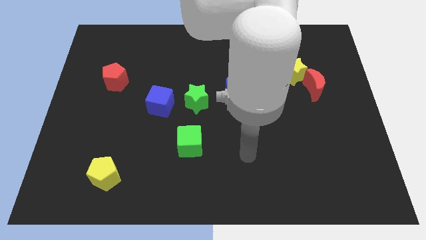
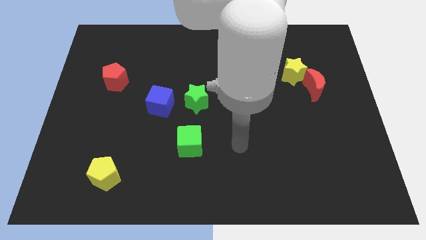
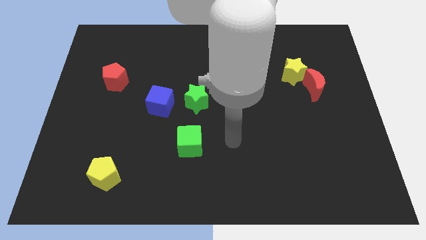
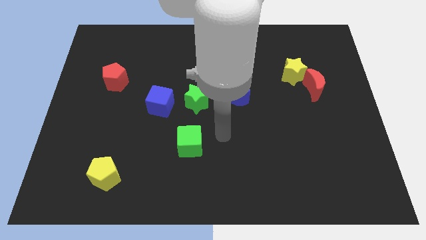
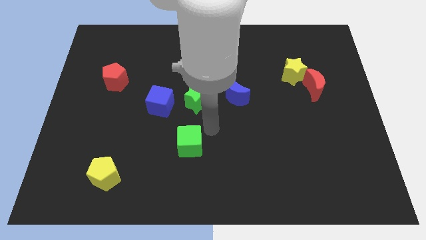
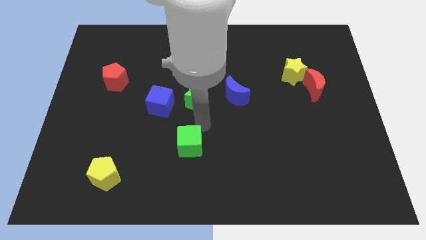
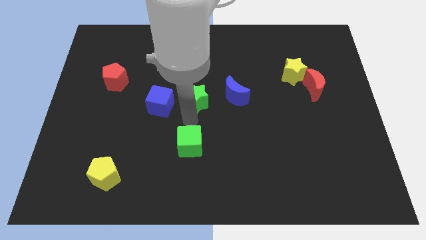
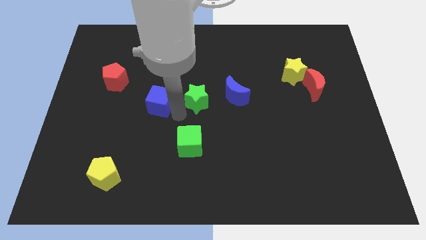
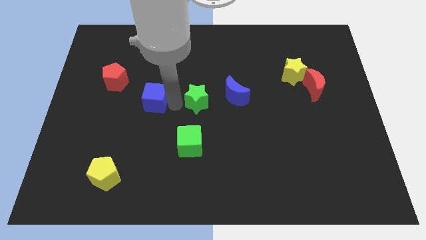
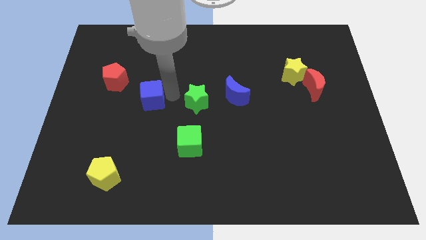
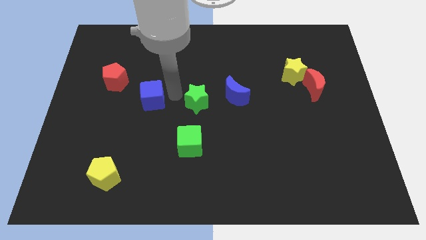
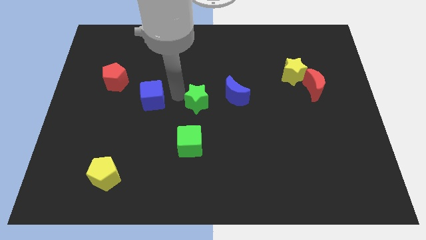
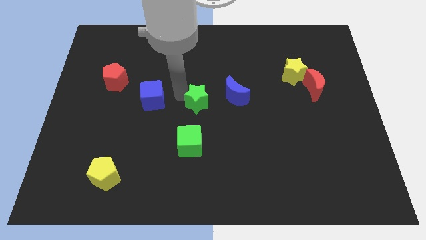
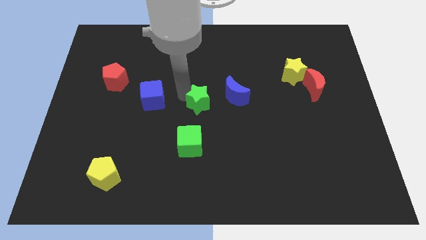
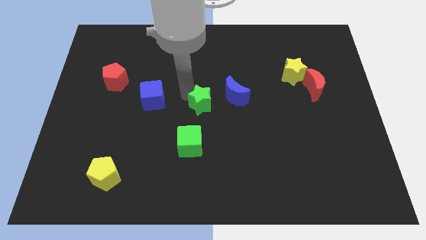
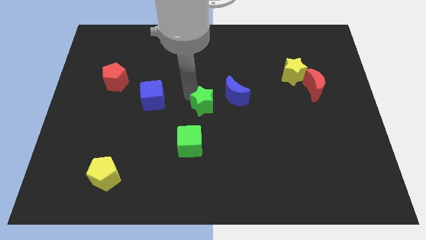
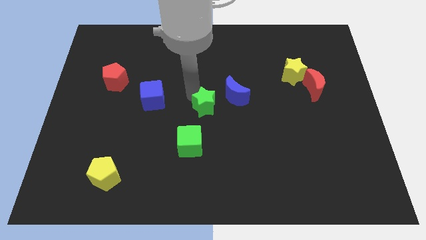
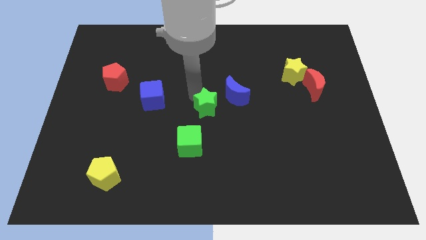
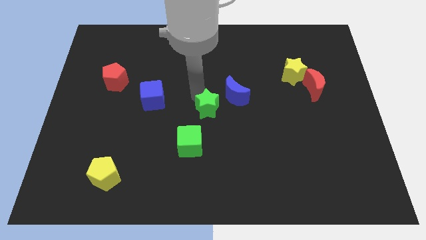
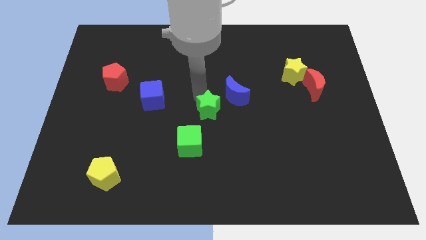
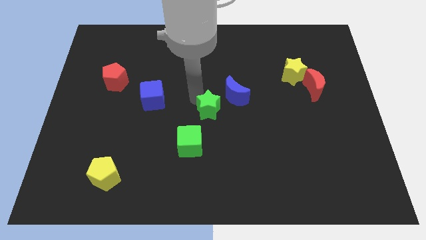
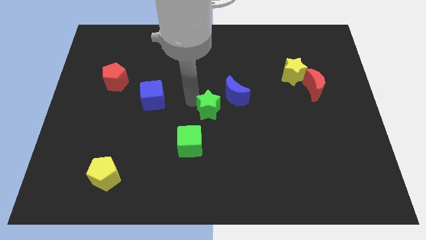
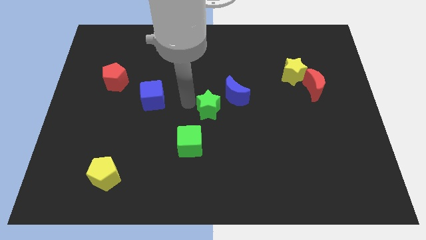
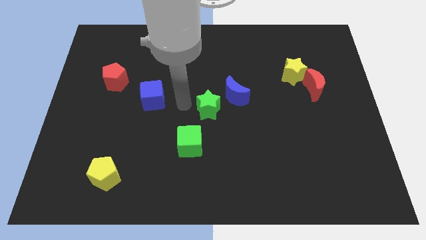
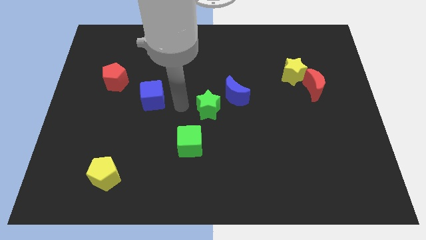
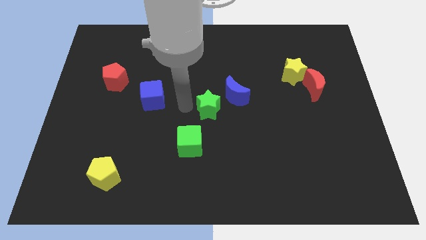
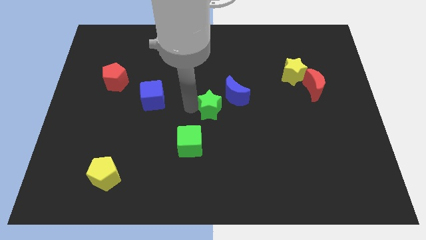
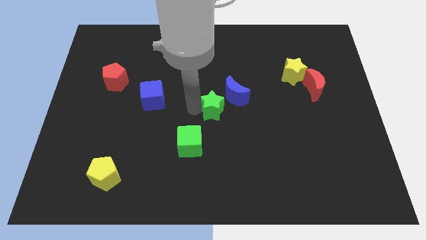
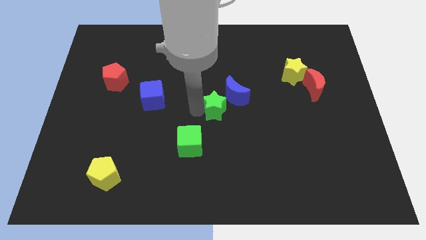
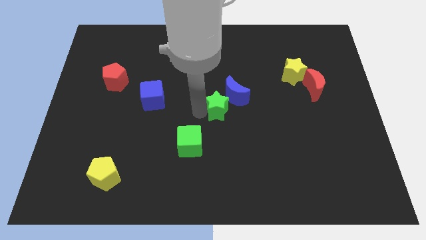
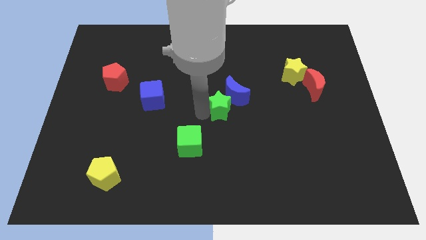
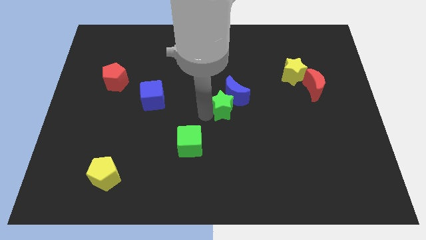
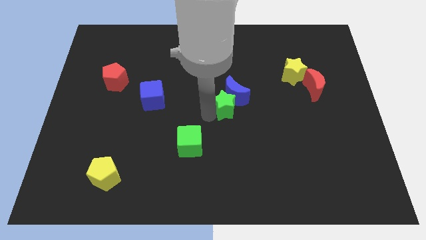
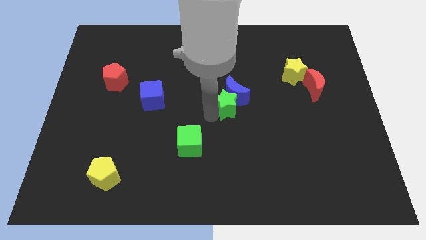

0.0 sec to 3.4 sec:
move the green star to the right a bit

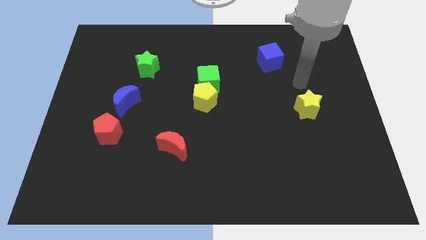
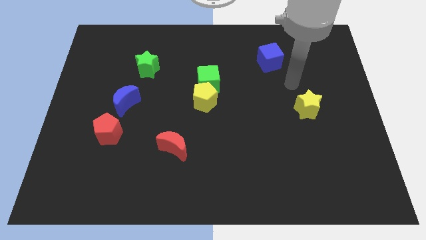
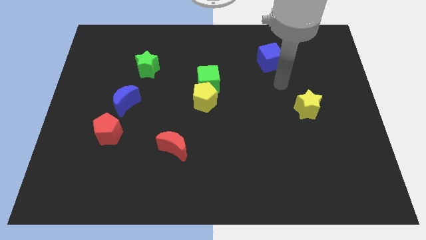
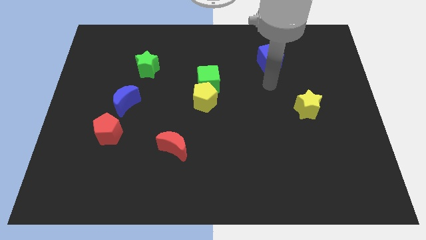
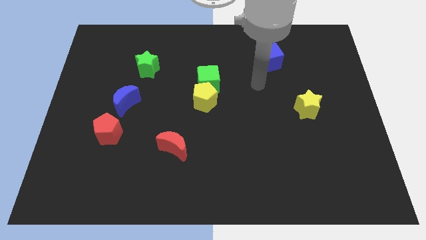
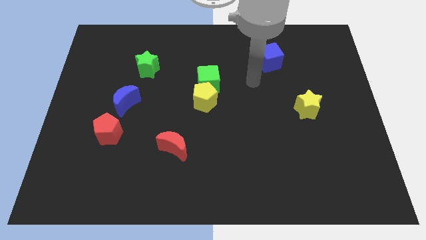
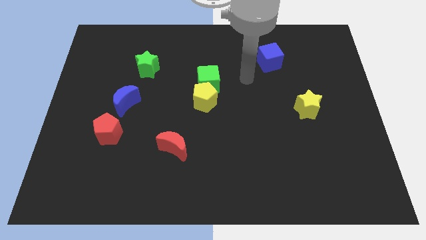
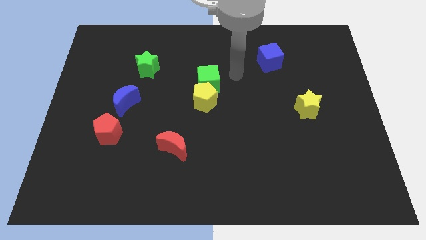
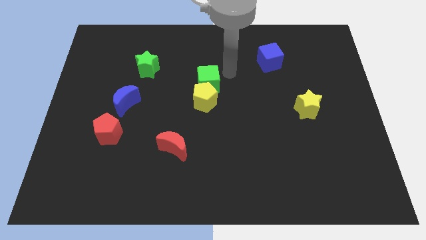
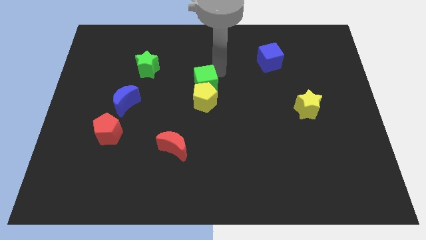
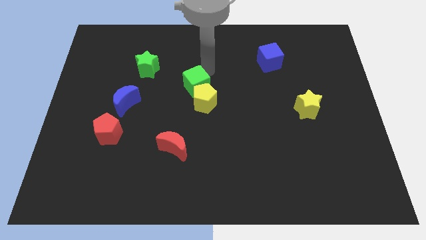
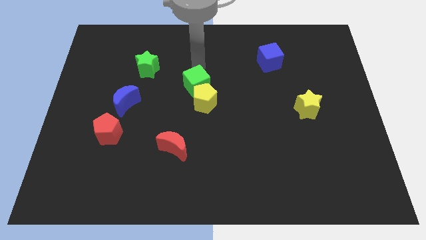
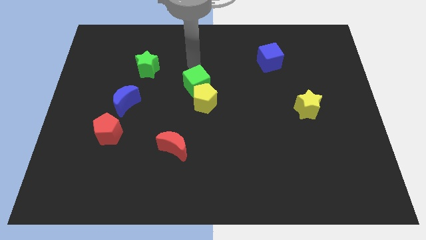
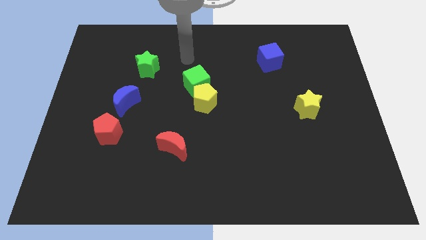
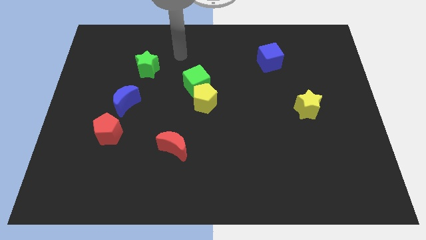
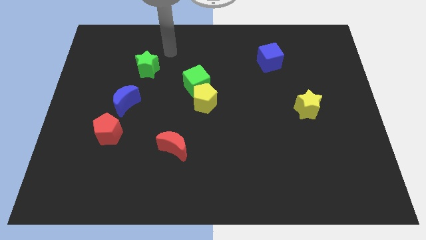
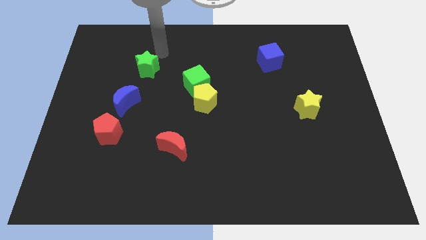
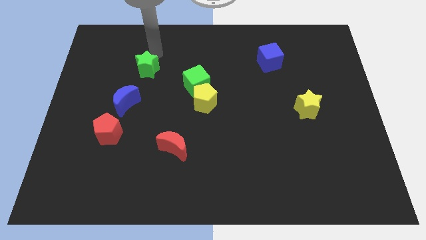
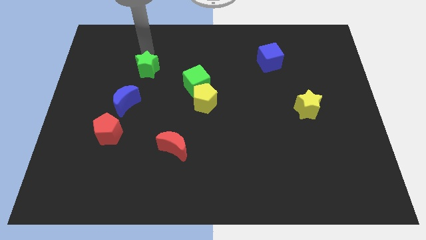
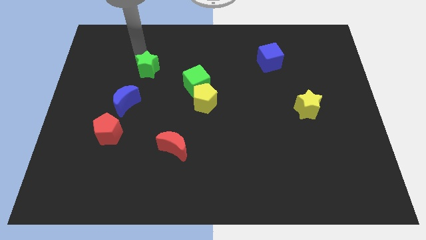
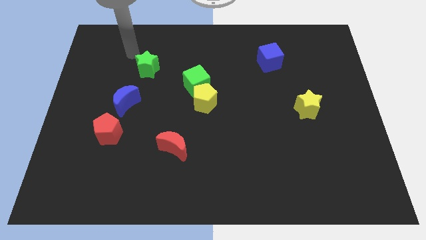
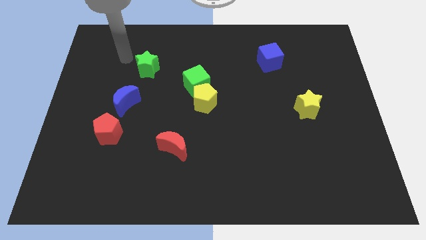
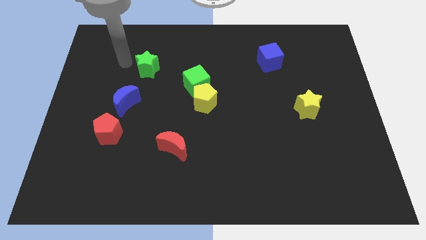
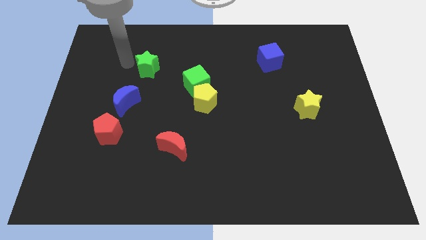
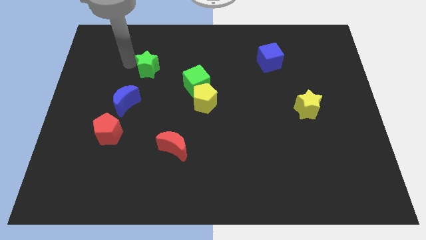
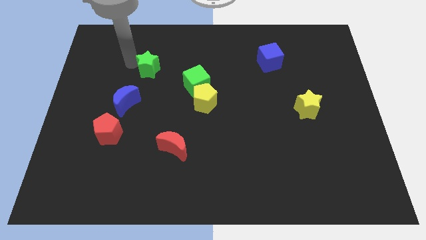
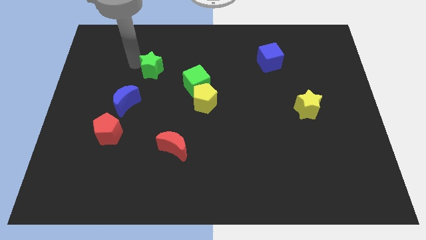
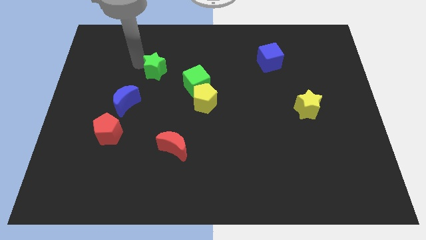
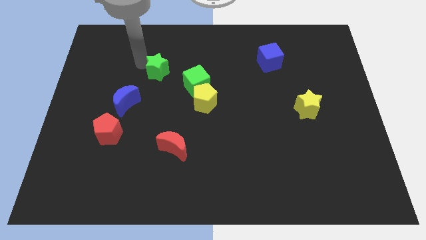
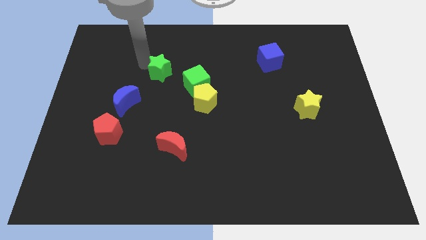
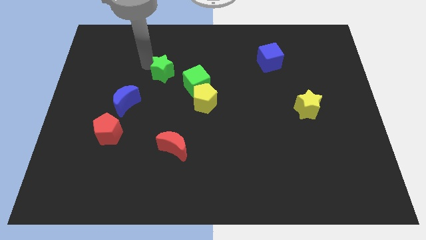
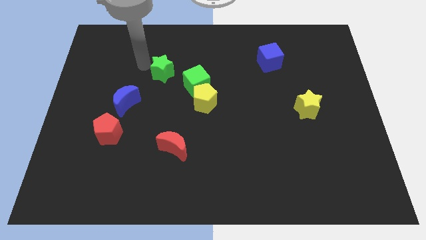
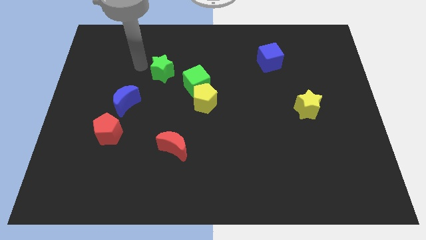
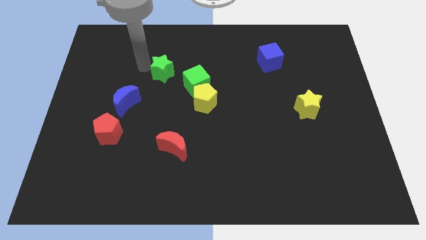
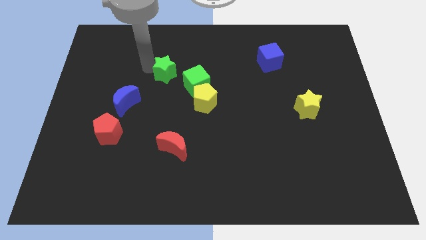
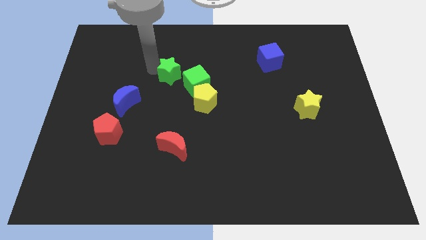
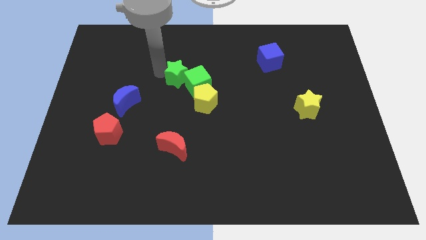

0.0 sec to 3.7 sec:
slightly slide the green star to the right

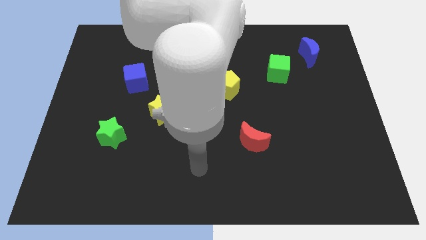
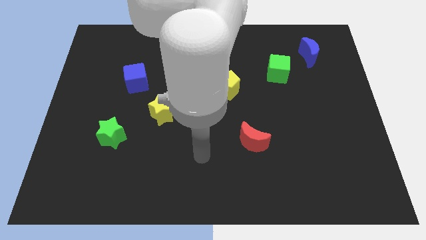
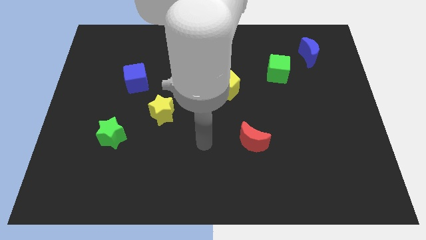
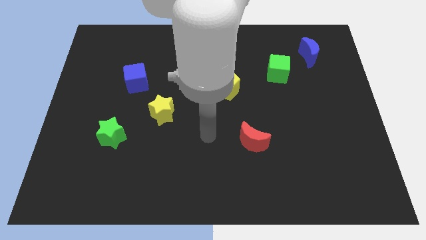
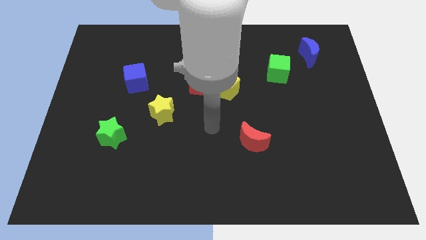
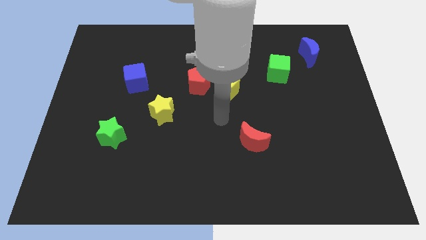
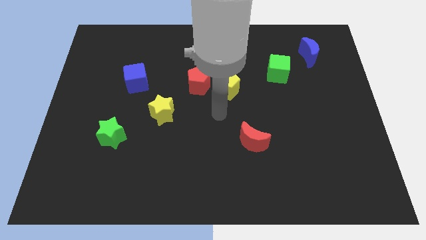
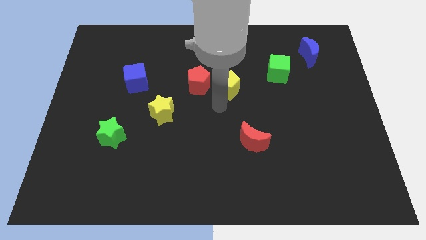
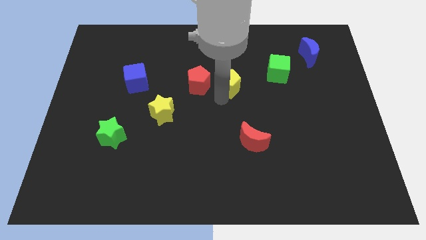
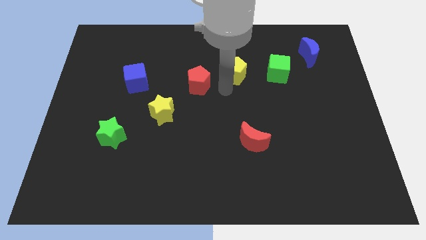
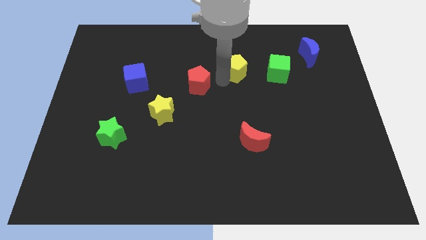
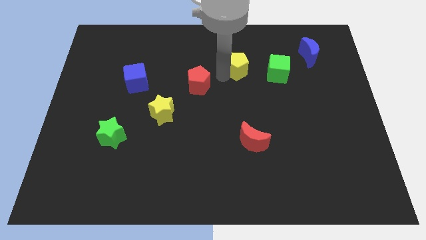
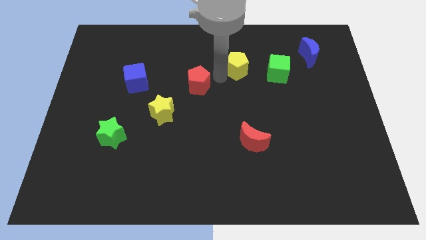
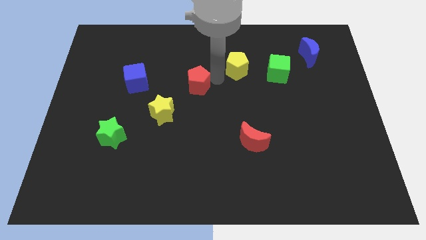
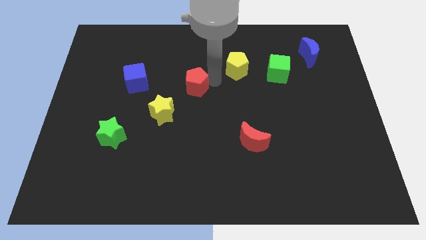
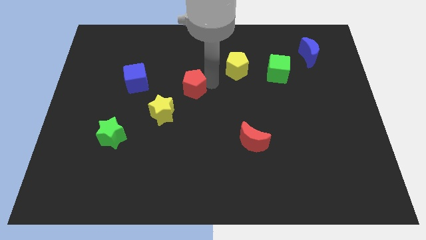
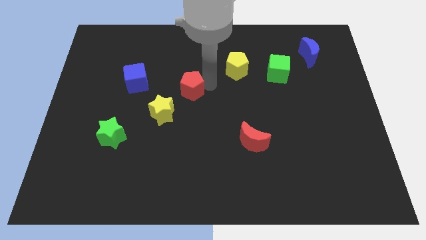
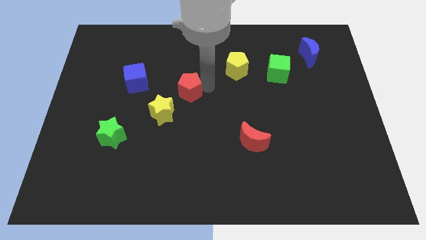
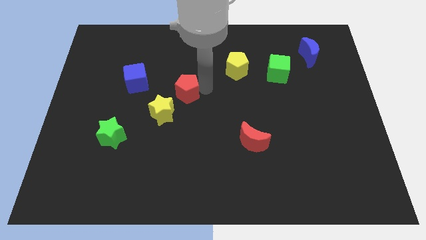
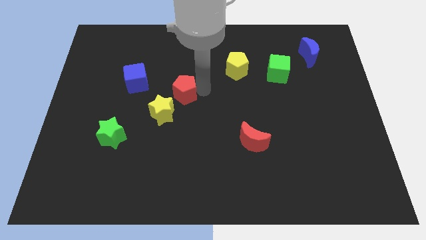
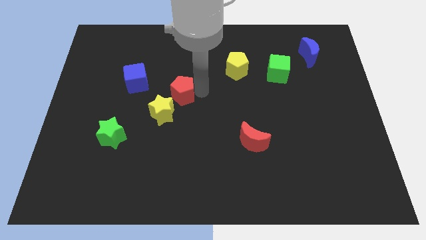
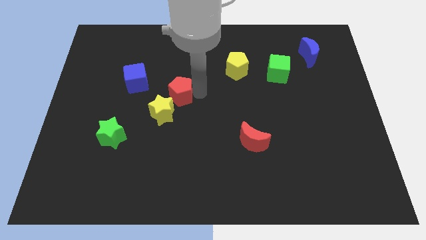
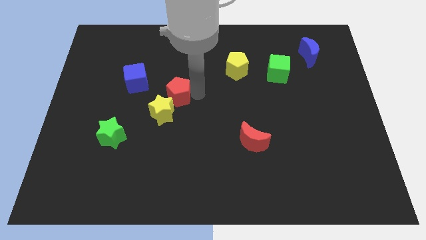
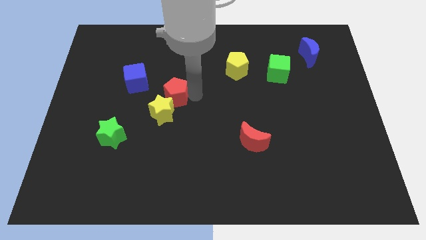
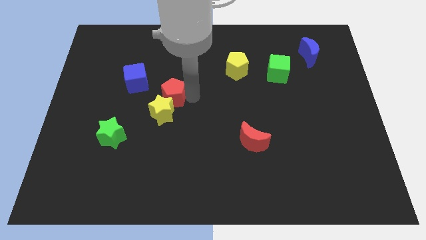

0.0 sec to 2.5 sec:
slightly slide the red pentagon down and to the left
